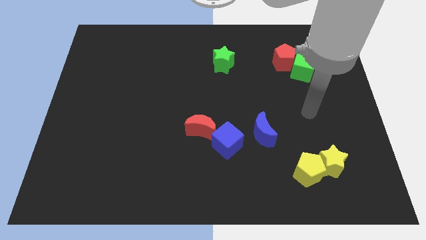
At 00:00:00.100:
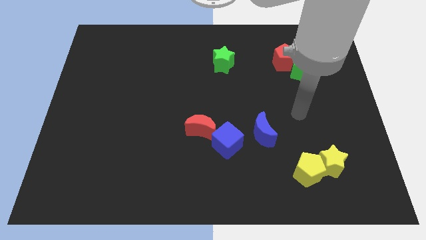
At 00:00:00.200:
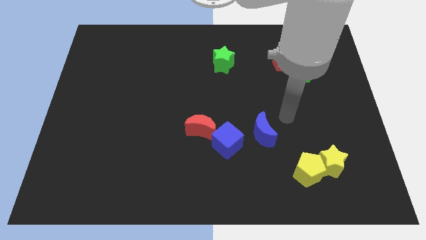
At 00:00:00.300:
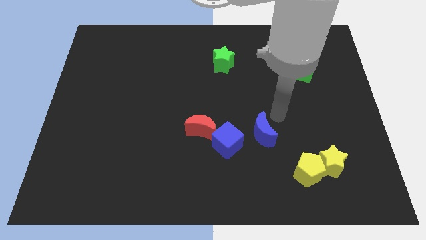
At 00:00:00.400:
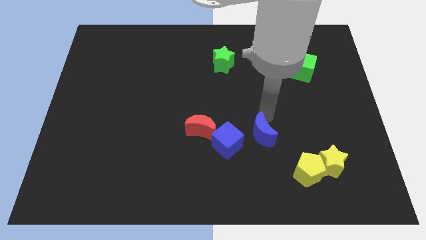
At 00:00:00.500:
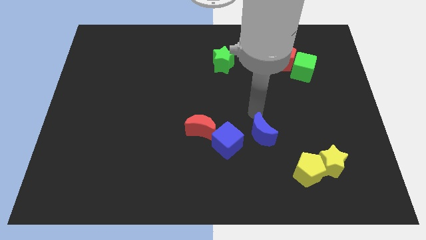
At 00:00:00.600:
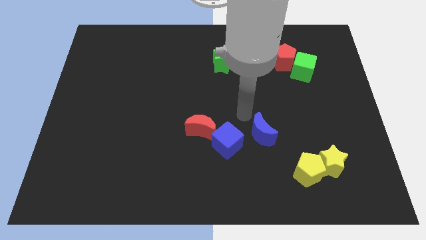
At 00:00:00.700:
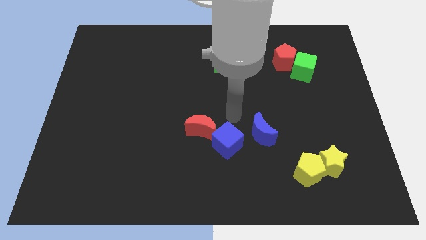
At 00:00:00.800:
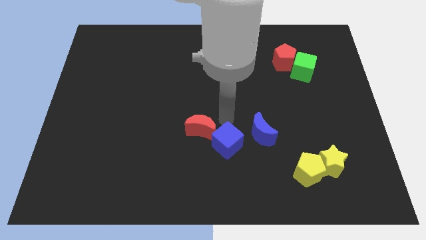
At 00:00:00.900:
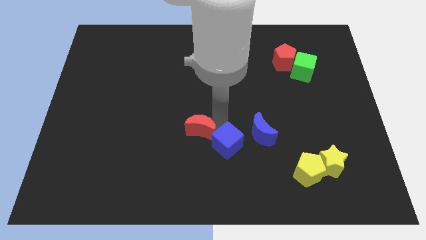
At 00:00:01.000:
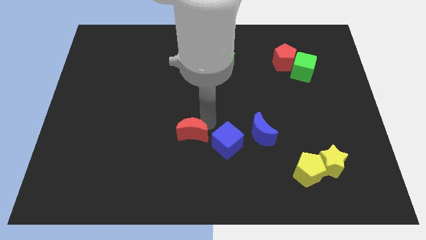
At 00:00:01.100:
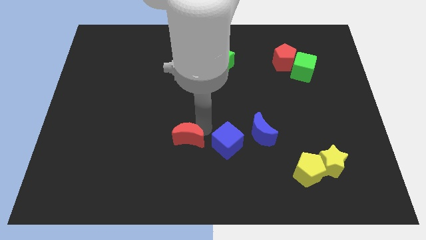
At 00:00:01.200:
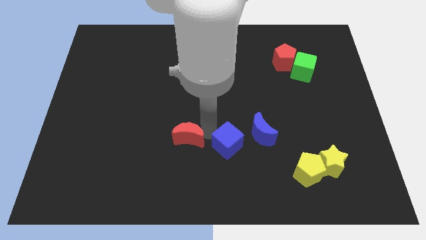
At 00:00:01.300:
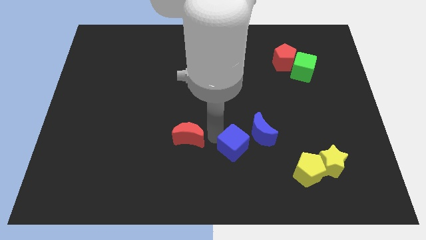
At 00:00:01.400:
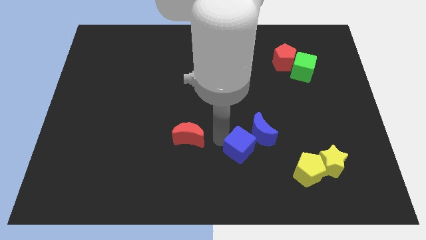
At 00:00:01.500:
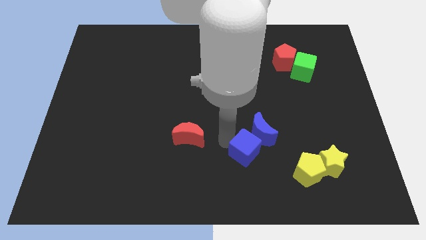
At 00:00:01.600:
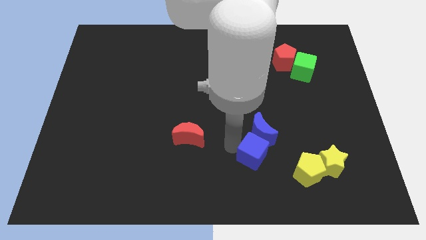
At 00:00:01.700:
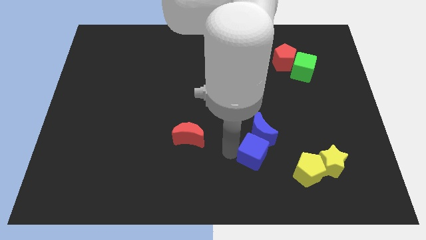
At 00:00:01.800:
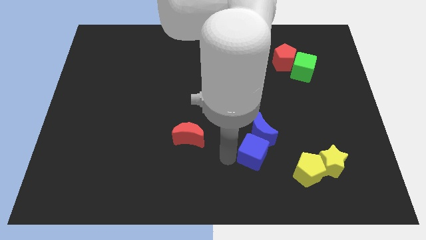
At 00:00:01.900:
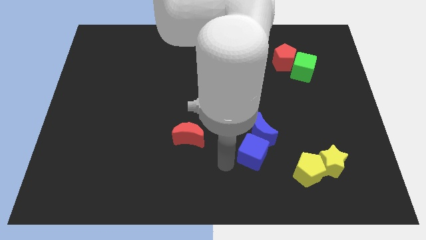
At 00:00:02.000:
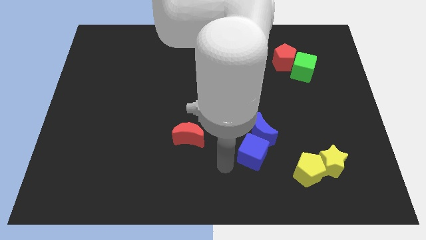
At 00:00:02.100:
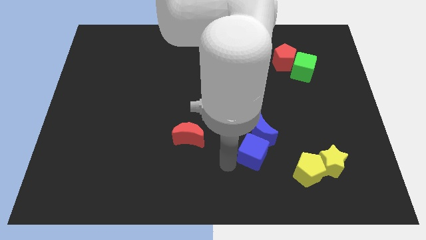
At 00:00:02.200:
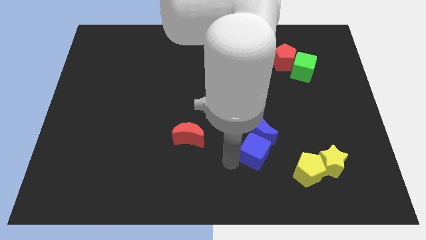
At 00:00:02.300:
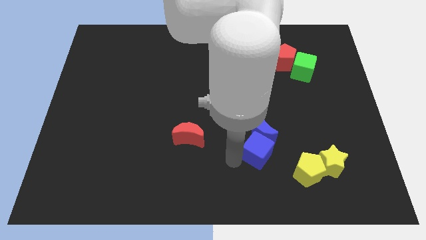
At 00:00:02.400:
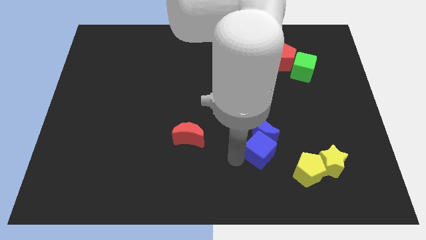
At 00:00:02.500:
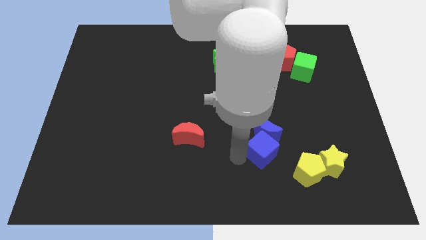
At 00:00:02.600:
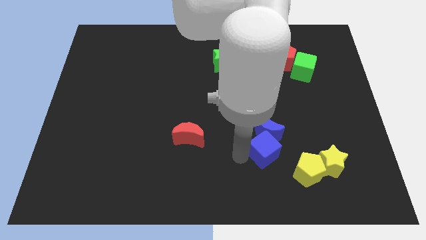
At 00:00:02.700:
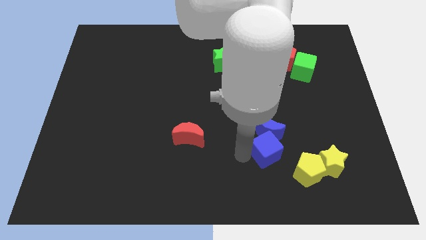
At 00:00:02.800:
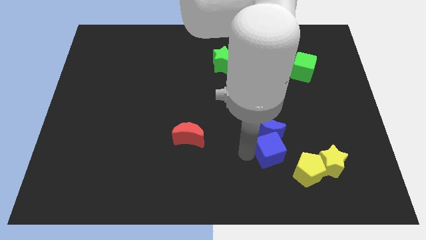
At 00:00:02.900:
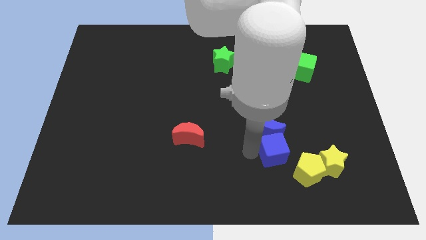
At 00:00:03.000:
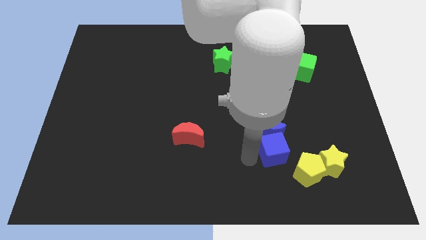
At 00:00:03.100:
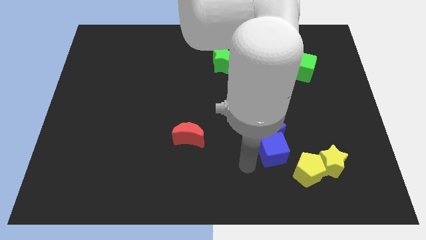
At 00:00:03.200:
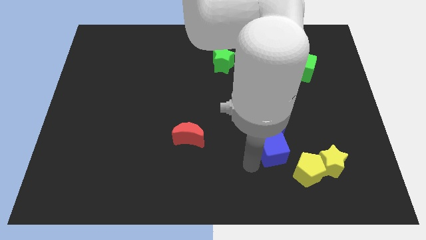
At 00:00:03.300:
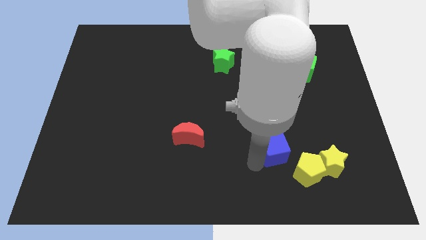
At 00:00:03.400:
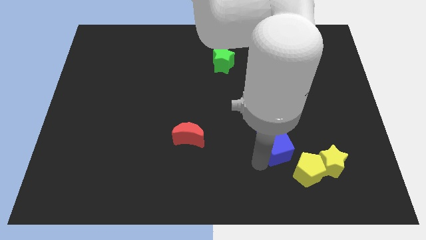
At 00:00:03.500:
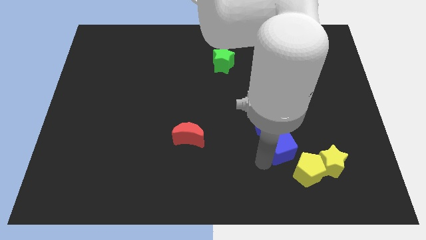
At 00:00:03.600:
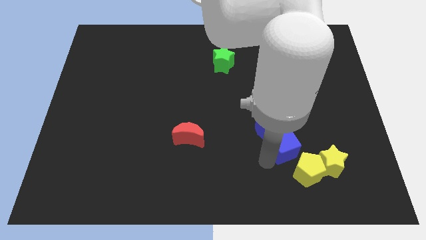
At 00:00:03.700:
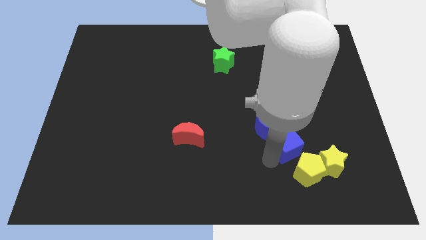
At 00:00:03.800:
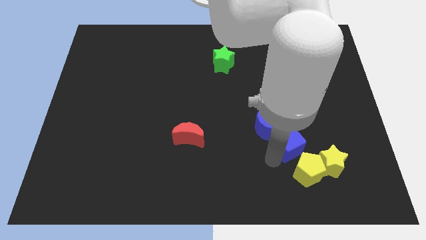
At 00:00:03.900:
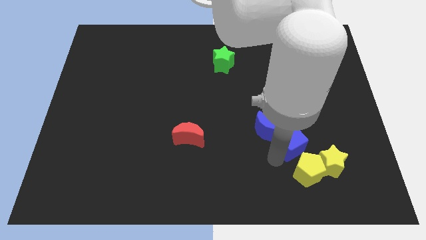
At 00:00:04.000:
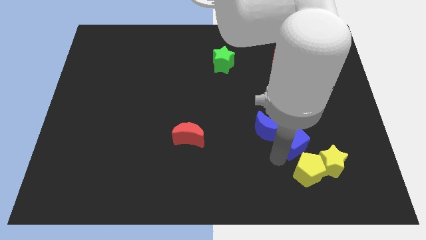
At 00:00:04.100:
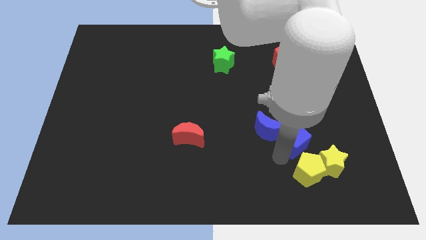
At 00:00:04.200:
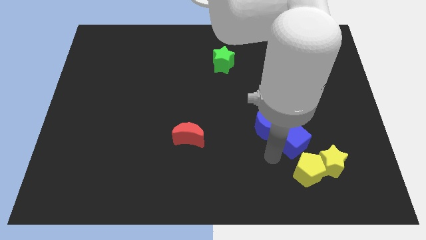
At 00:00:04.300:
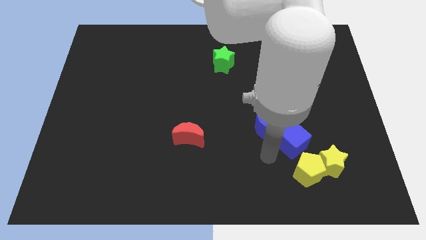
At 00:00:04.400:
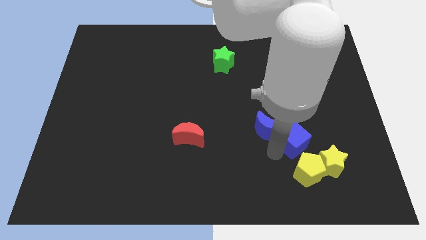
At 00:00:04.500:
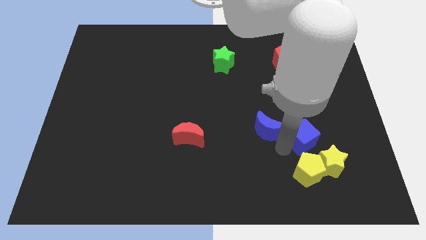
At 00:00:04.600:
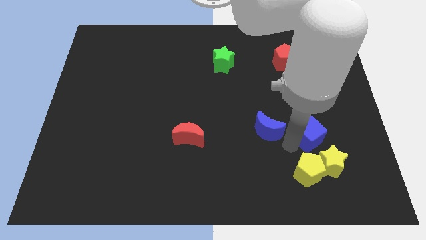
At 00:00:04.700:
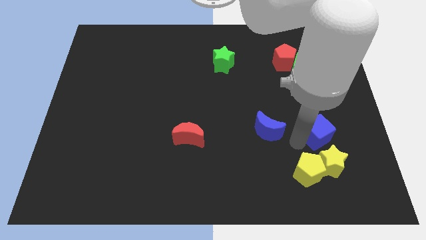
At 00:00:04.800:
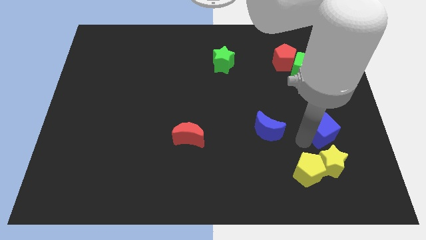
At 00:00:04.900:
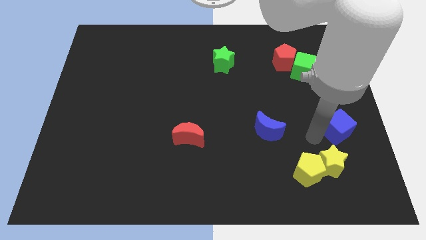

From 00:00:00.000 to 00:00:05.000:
put the blue cube to the center right

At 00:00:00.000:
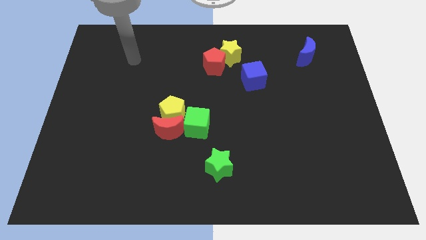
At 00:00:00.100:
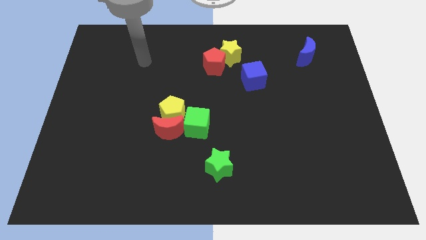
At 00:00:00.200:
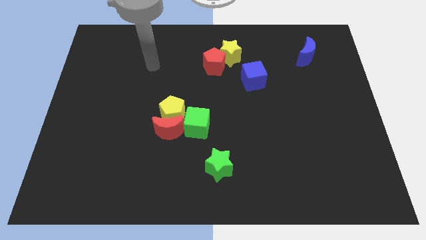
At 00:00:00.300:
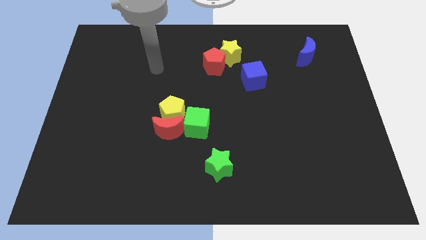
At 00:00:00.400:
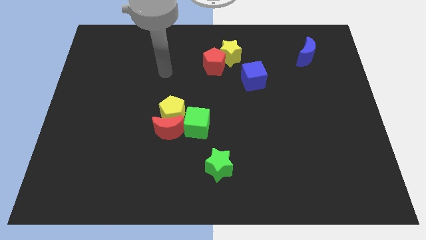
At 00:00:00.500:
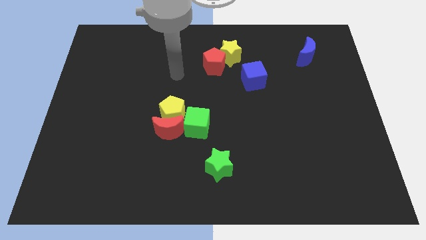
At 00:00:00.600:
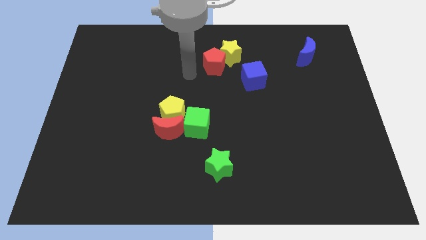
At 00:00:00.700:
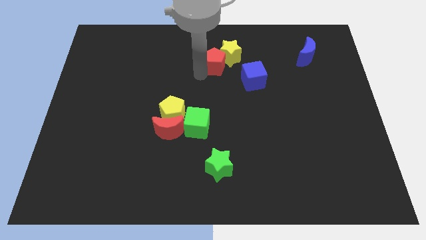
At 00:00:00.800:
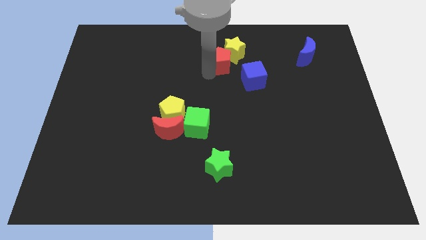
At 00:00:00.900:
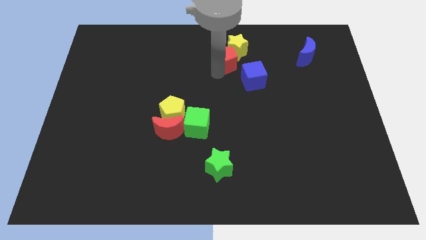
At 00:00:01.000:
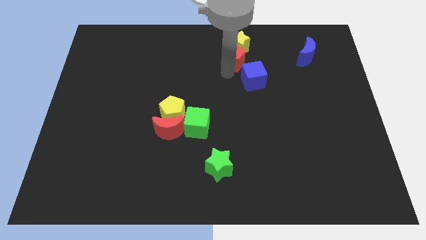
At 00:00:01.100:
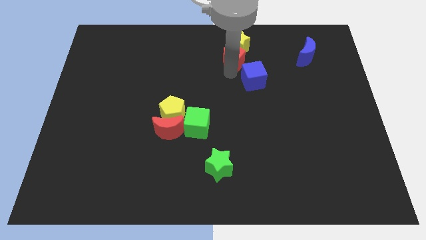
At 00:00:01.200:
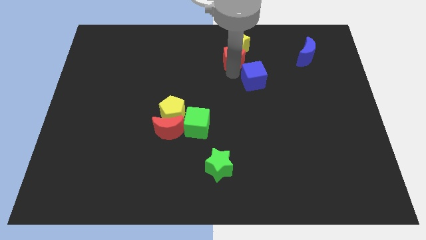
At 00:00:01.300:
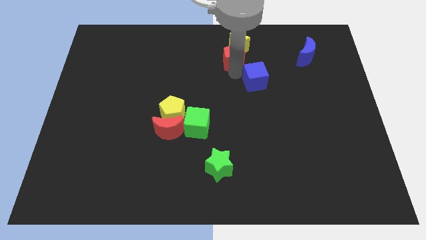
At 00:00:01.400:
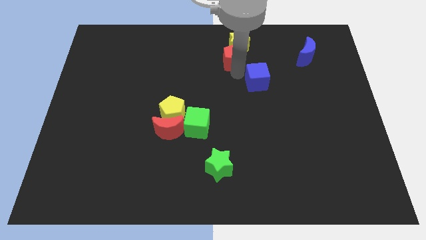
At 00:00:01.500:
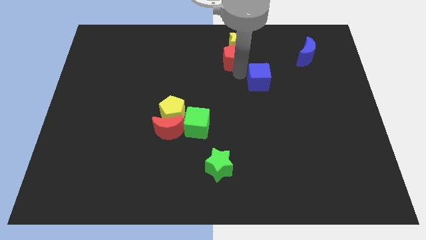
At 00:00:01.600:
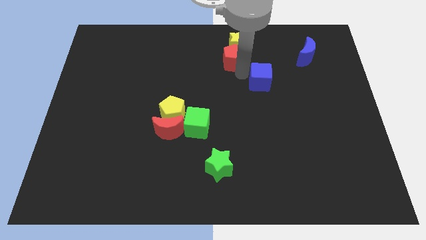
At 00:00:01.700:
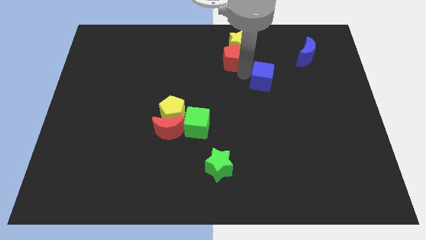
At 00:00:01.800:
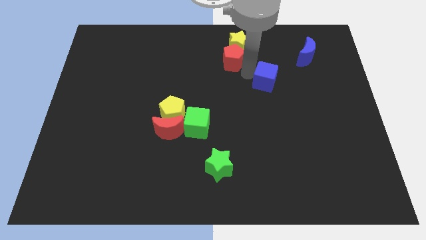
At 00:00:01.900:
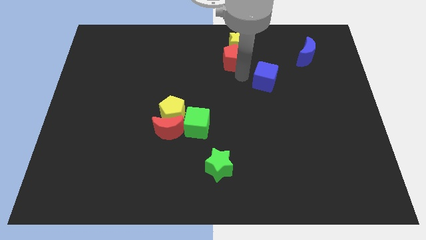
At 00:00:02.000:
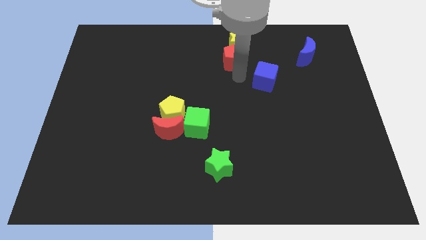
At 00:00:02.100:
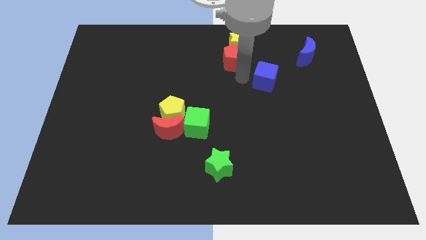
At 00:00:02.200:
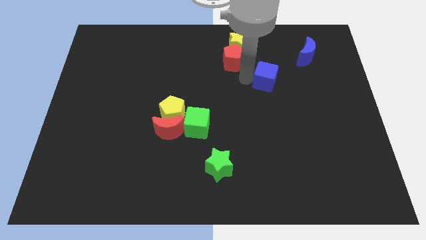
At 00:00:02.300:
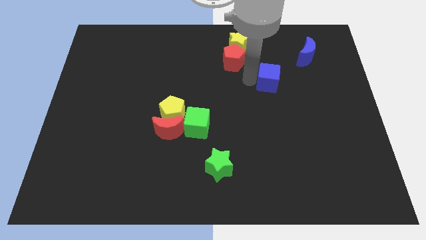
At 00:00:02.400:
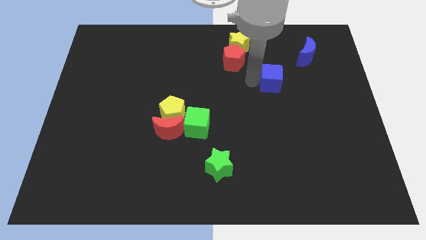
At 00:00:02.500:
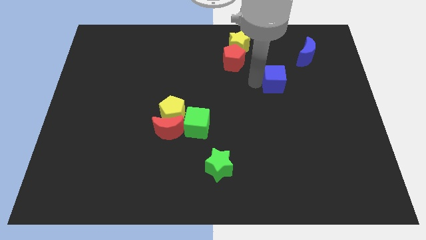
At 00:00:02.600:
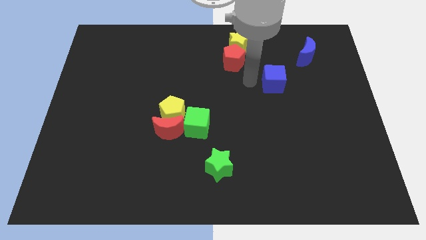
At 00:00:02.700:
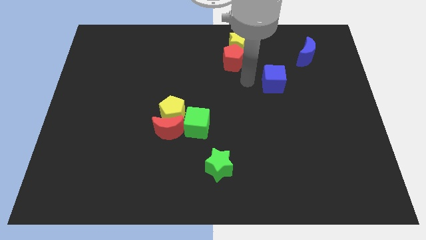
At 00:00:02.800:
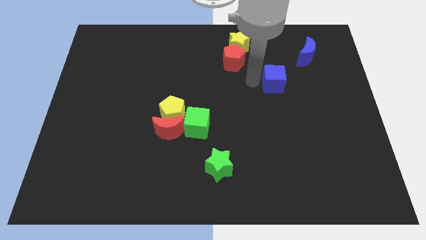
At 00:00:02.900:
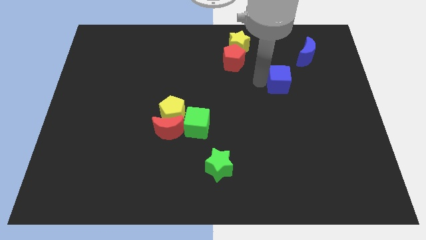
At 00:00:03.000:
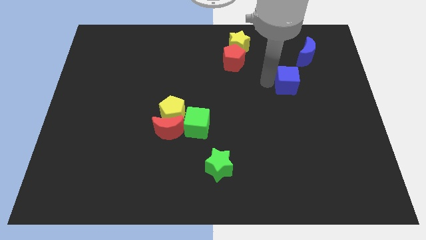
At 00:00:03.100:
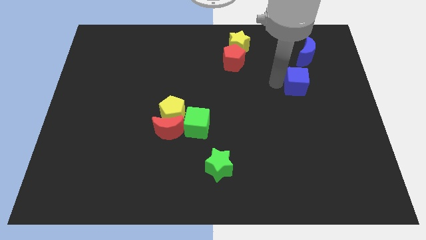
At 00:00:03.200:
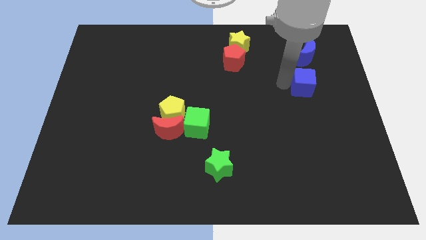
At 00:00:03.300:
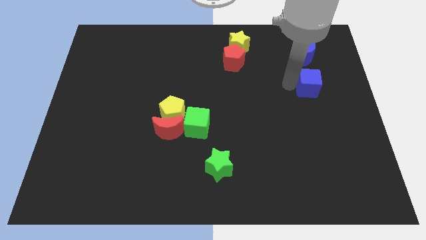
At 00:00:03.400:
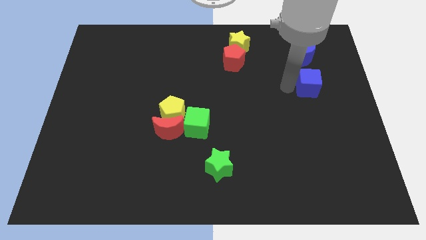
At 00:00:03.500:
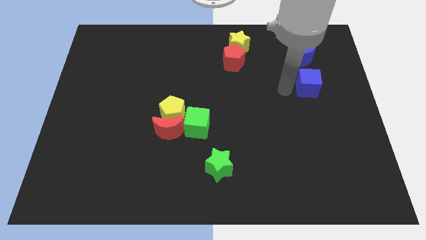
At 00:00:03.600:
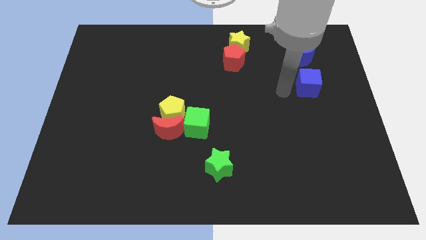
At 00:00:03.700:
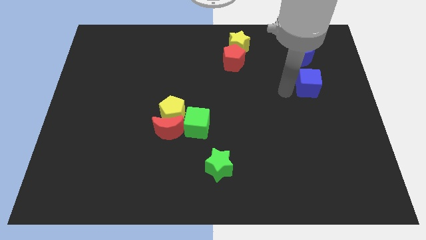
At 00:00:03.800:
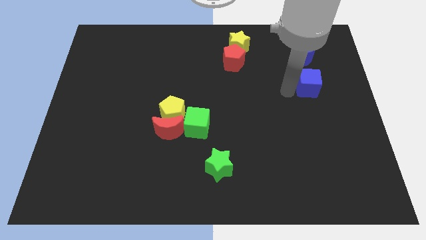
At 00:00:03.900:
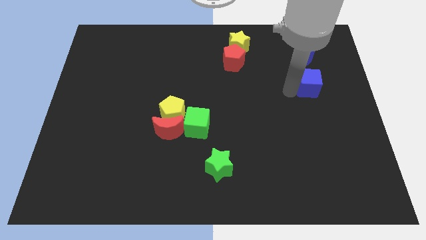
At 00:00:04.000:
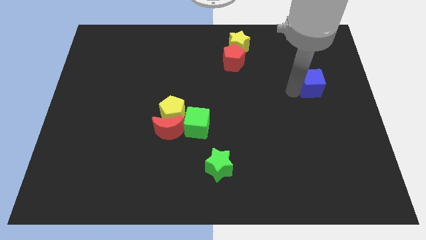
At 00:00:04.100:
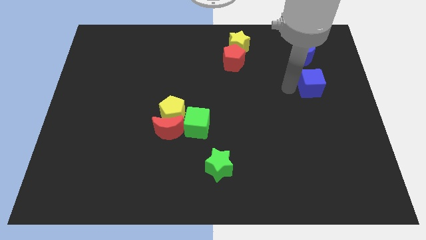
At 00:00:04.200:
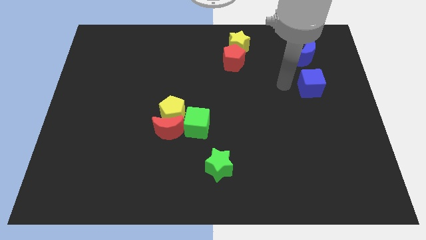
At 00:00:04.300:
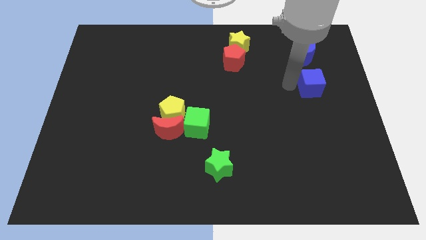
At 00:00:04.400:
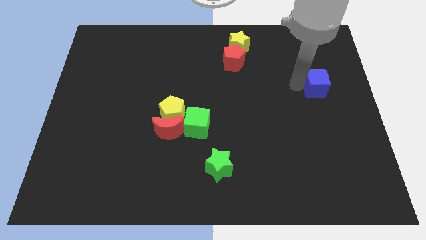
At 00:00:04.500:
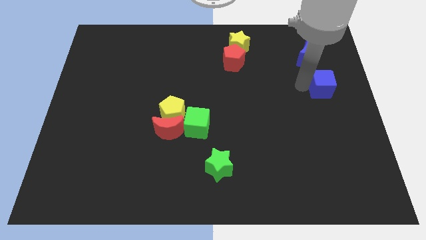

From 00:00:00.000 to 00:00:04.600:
move the blue cube to the right side
